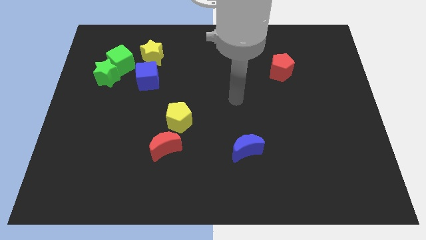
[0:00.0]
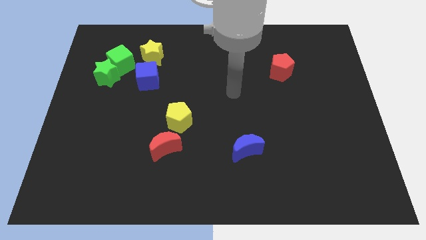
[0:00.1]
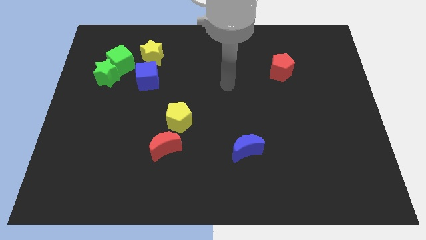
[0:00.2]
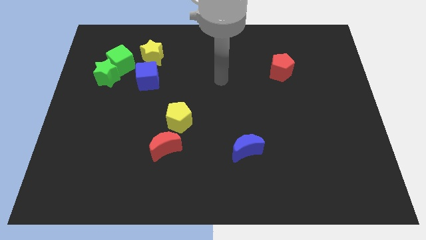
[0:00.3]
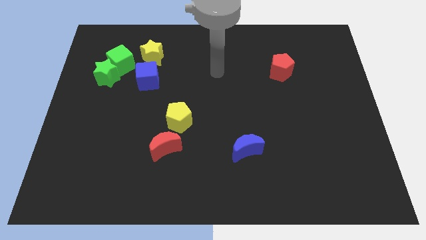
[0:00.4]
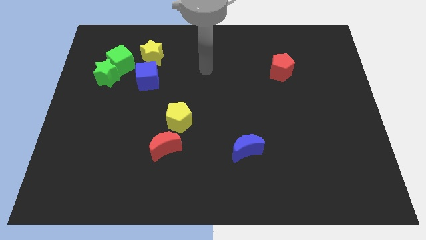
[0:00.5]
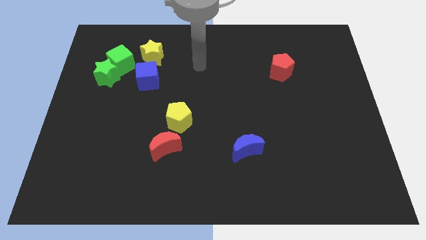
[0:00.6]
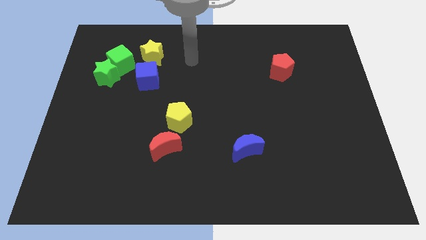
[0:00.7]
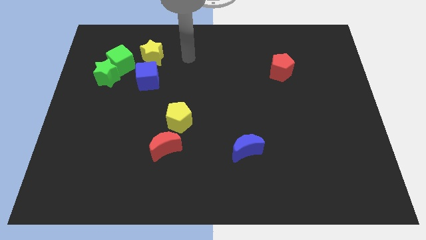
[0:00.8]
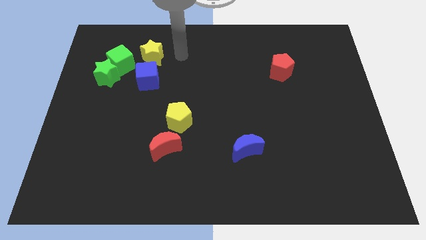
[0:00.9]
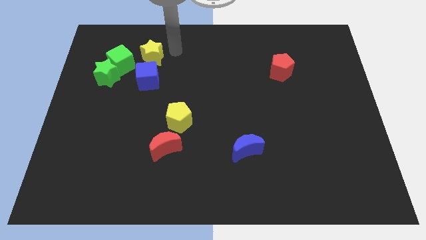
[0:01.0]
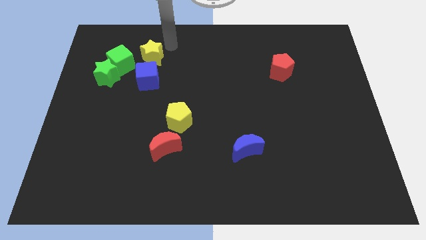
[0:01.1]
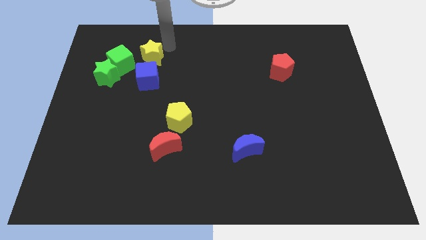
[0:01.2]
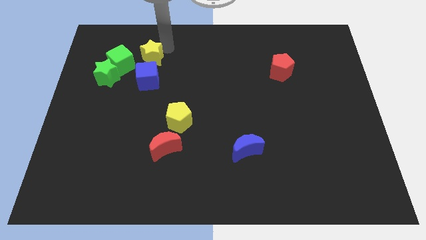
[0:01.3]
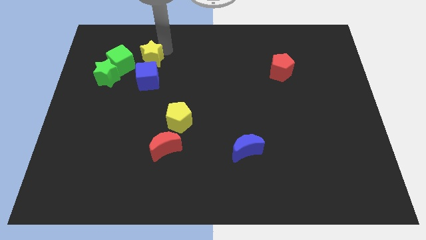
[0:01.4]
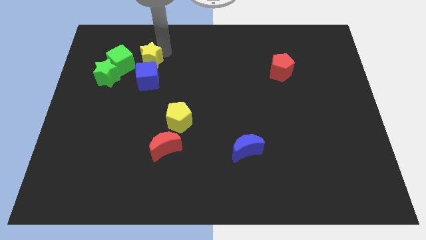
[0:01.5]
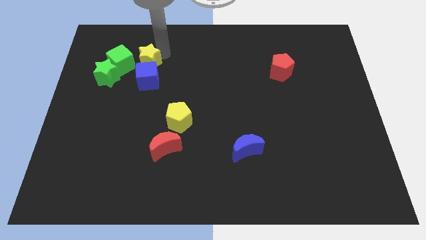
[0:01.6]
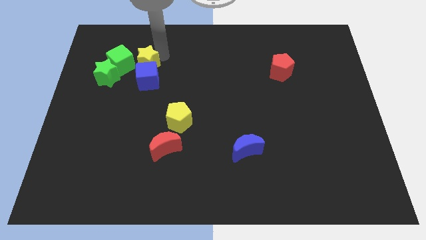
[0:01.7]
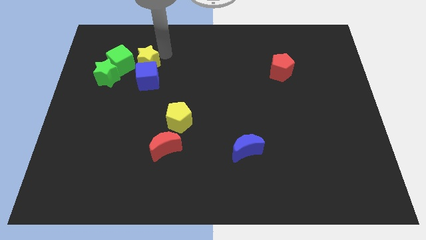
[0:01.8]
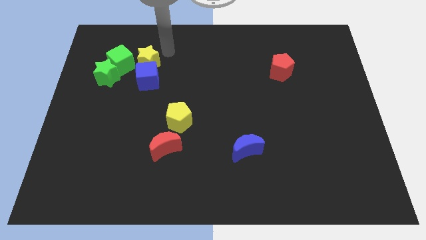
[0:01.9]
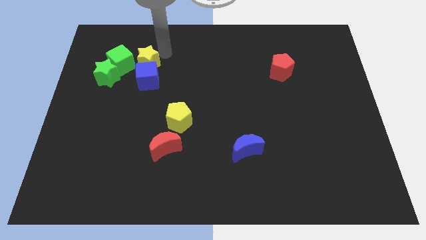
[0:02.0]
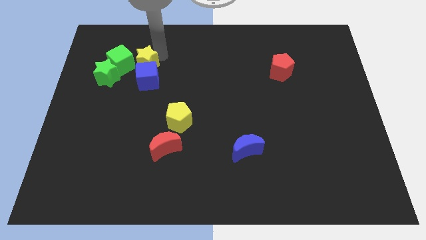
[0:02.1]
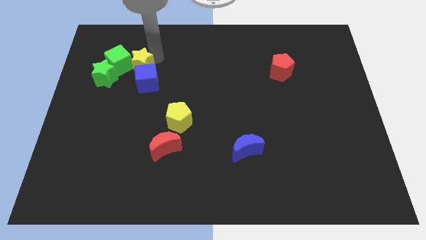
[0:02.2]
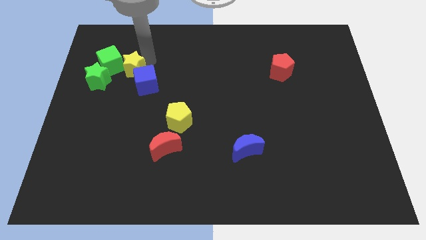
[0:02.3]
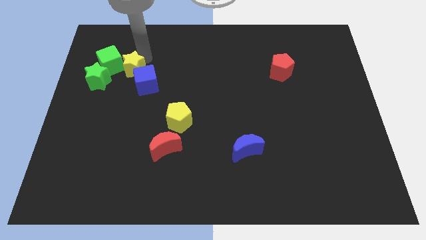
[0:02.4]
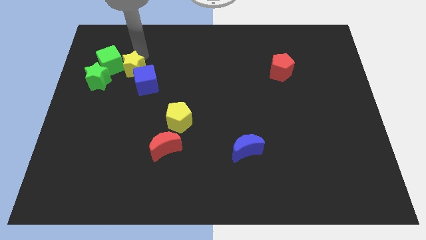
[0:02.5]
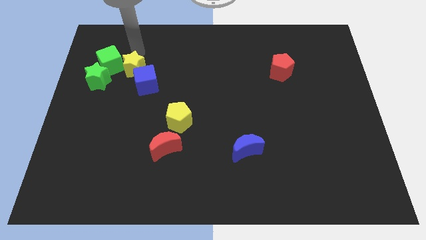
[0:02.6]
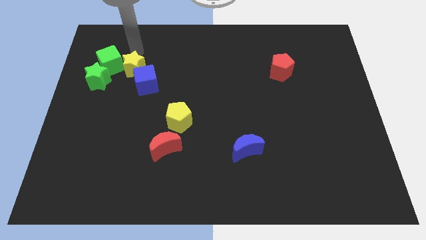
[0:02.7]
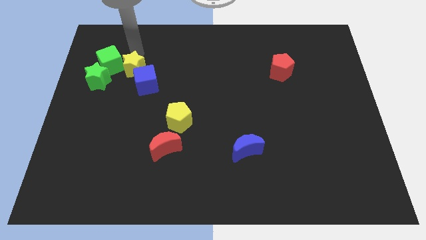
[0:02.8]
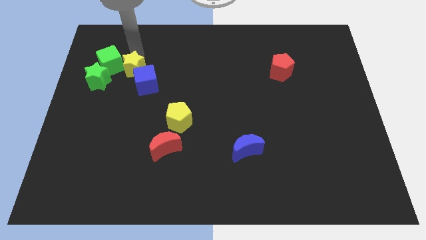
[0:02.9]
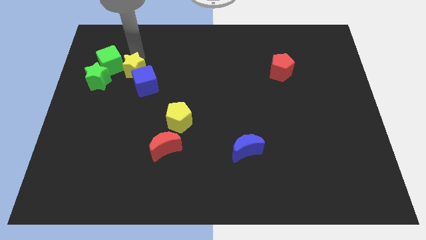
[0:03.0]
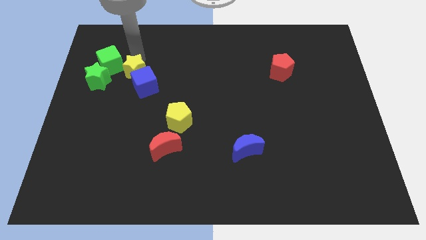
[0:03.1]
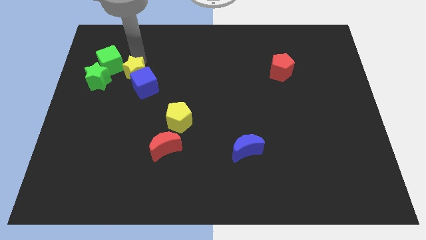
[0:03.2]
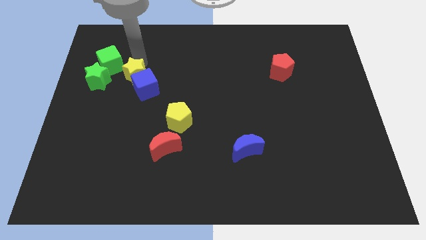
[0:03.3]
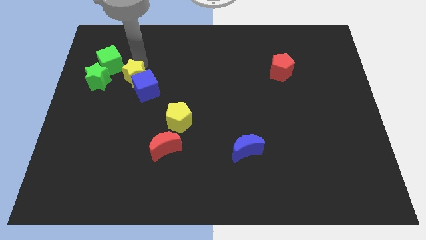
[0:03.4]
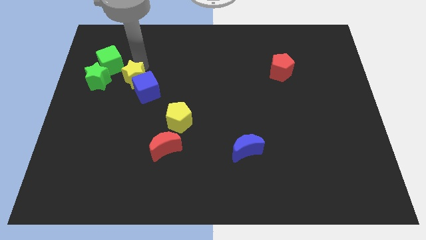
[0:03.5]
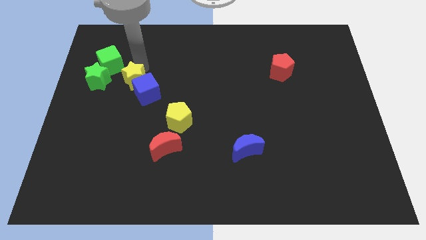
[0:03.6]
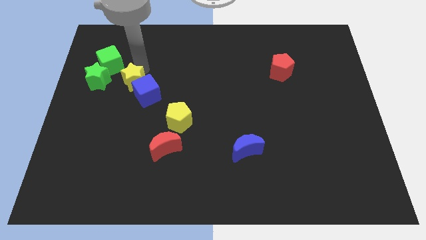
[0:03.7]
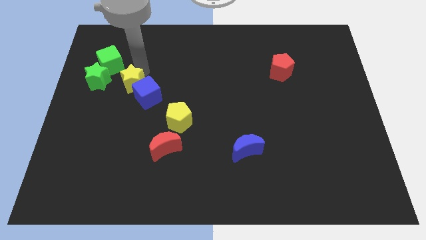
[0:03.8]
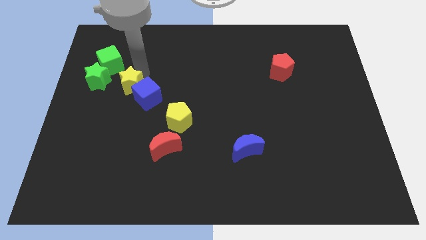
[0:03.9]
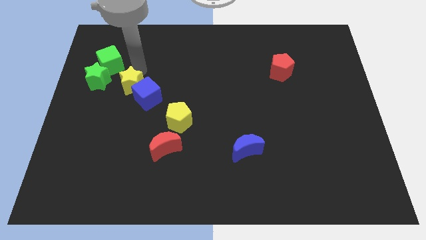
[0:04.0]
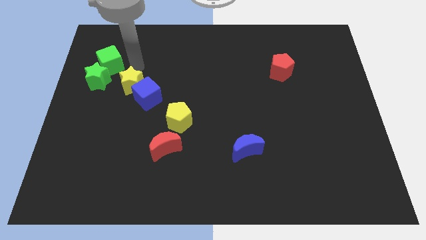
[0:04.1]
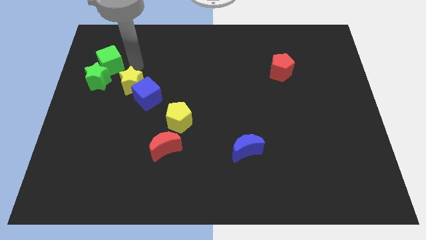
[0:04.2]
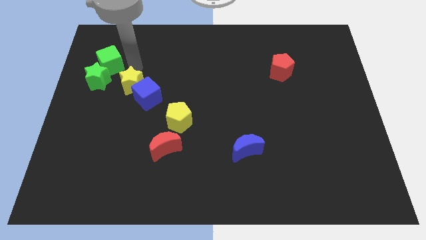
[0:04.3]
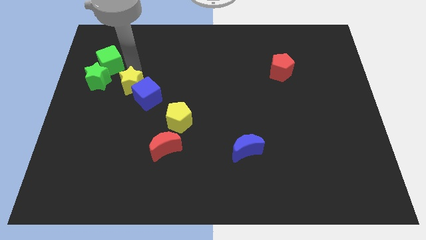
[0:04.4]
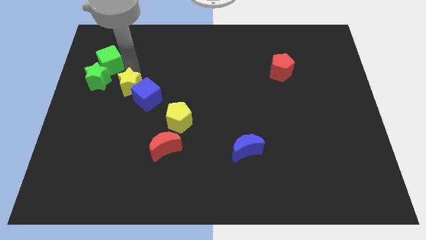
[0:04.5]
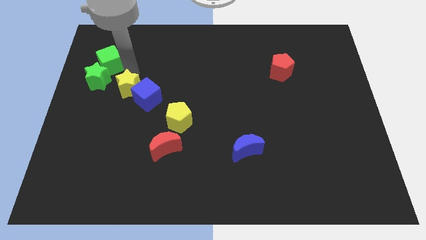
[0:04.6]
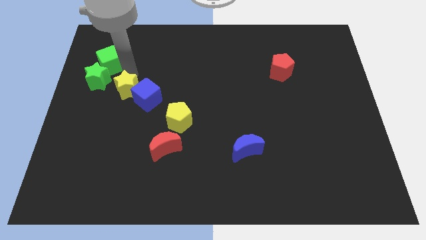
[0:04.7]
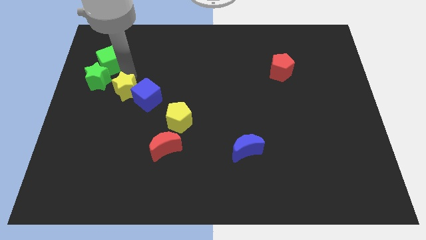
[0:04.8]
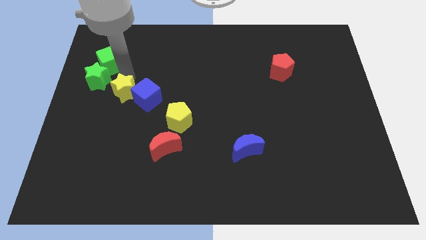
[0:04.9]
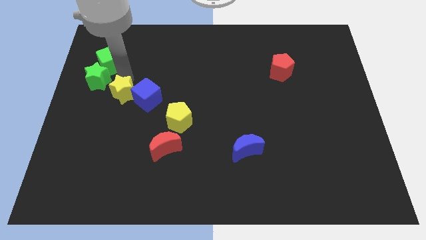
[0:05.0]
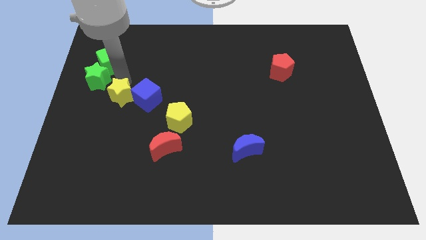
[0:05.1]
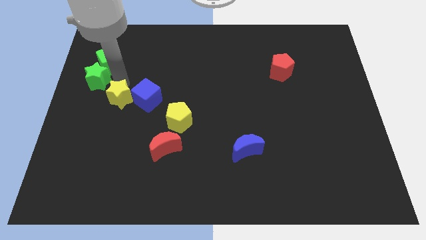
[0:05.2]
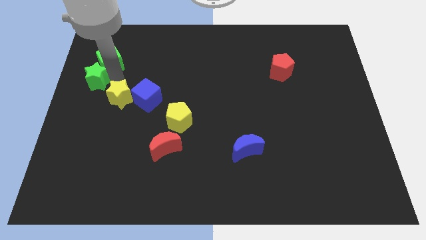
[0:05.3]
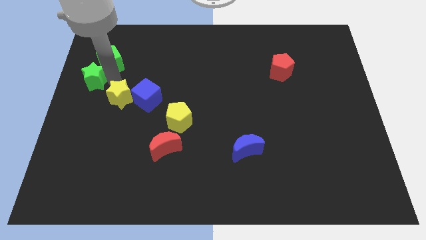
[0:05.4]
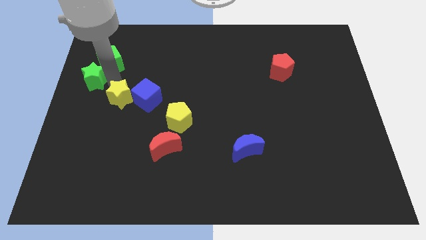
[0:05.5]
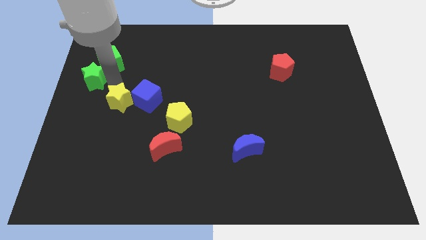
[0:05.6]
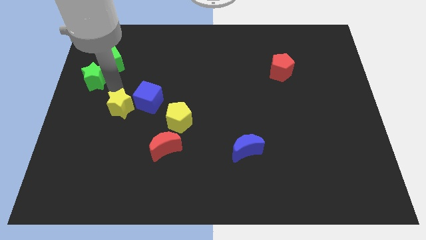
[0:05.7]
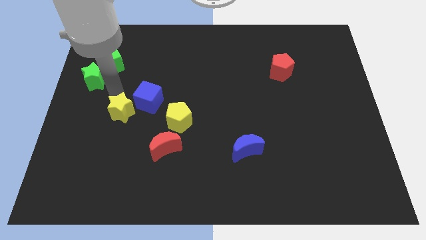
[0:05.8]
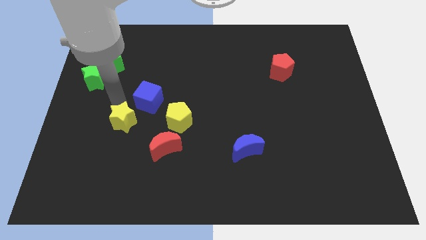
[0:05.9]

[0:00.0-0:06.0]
slide the yellow star down

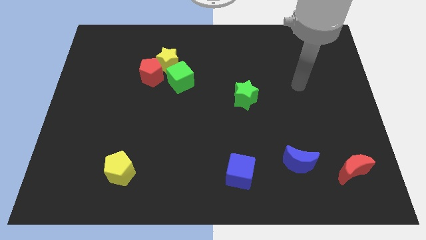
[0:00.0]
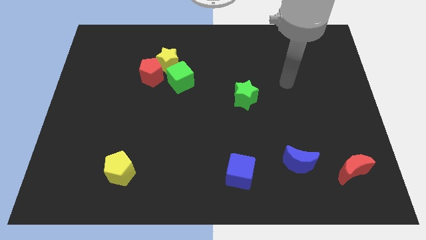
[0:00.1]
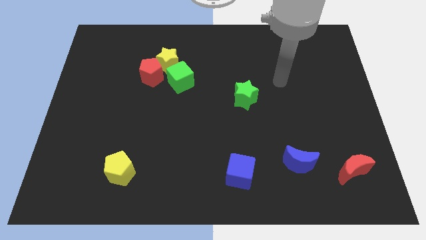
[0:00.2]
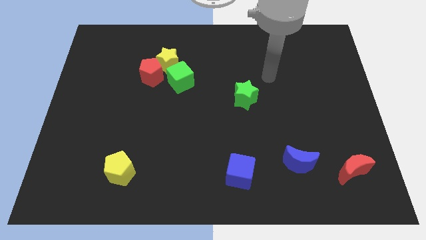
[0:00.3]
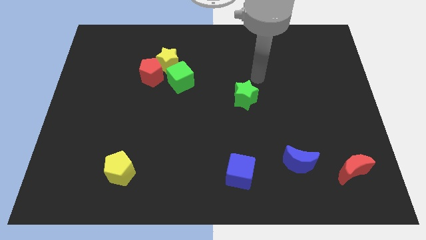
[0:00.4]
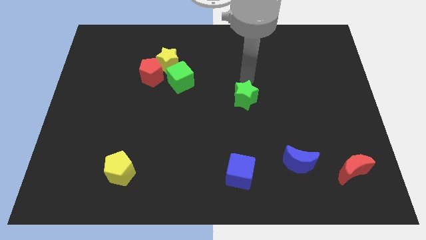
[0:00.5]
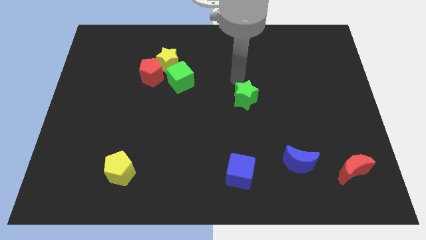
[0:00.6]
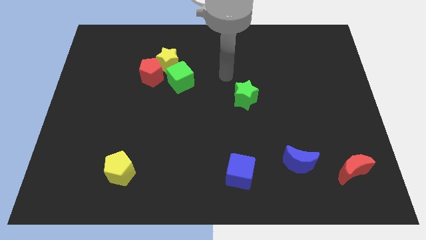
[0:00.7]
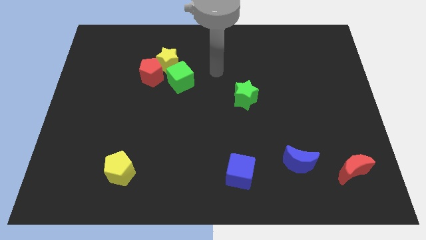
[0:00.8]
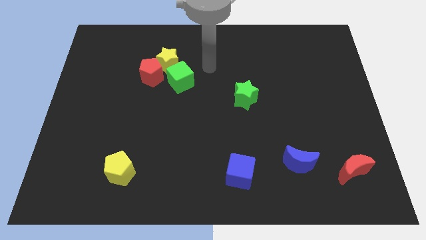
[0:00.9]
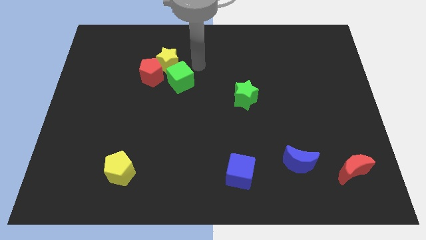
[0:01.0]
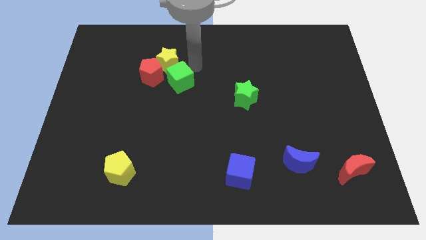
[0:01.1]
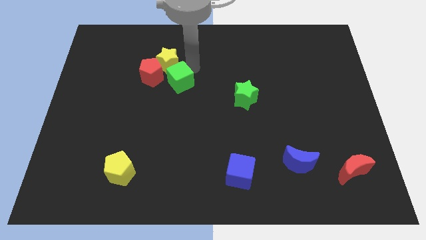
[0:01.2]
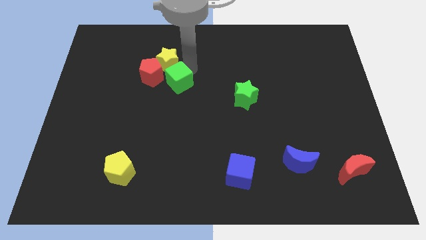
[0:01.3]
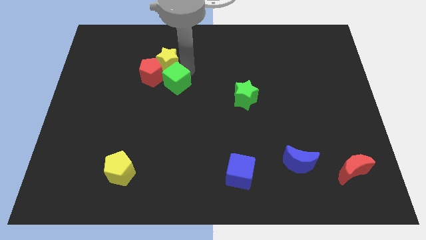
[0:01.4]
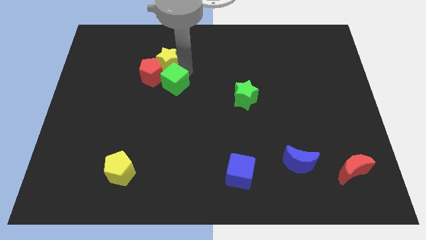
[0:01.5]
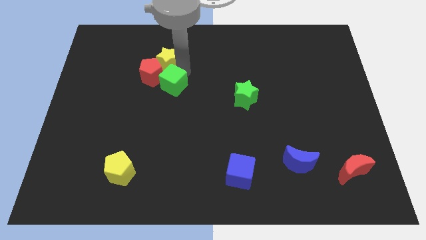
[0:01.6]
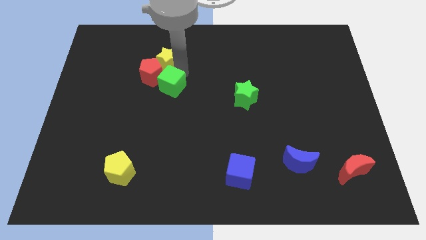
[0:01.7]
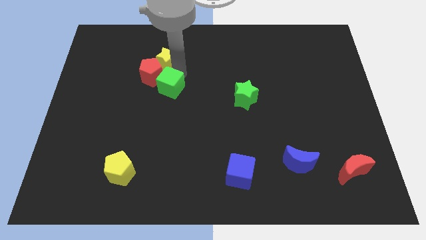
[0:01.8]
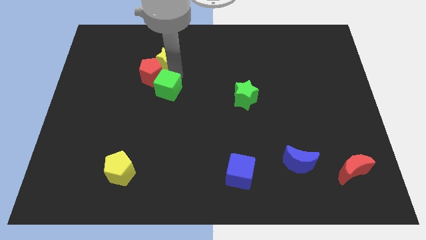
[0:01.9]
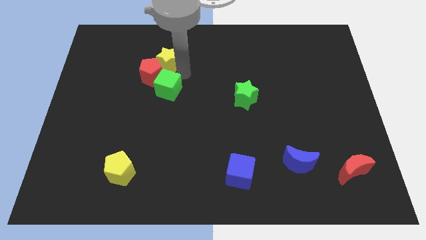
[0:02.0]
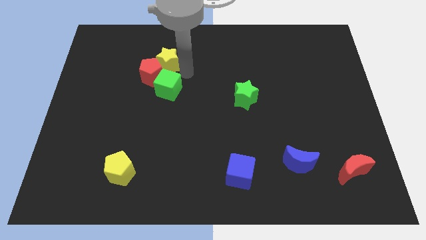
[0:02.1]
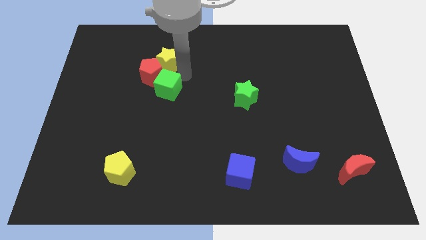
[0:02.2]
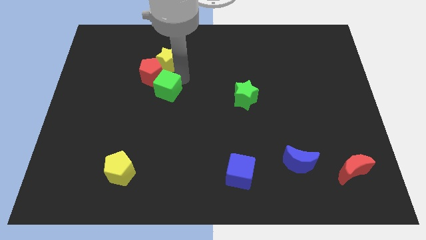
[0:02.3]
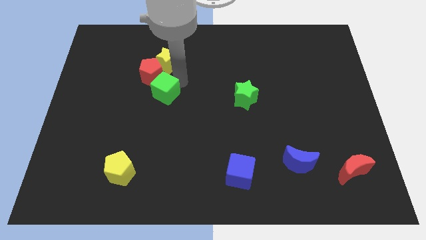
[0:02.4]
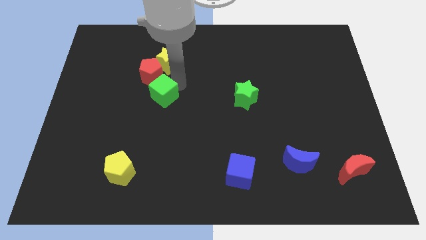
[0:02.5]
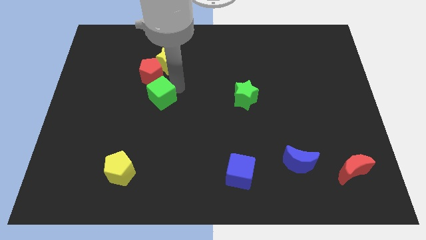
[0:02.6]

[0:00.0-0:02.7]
slide the green cube diagonally downwards and to the left somewhat
